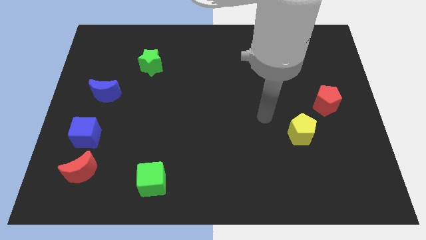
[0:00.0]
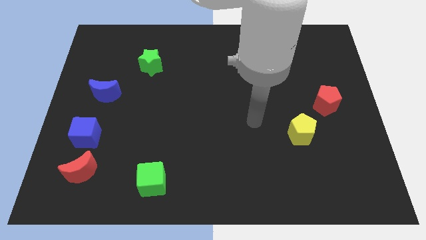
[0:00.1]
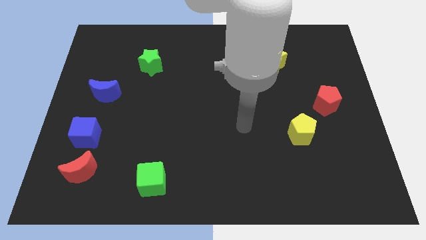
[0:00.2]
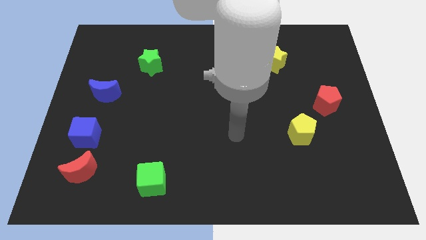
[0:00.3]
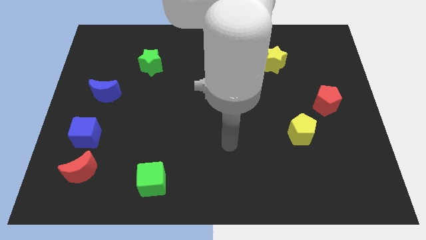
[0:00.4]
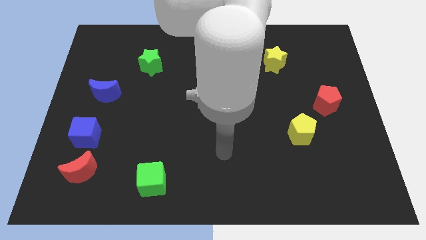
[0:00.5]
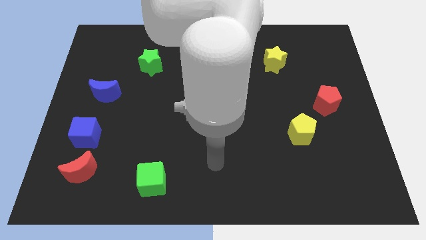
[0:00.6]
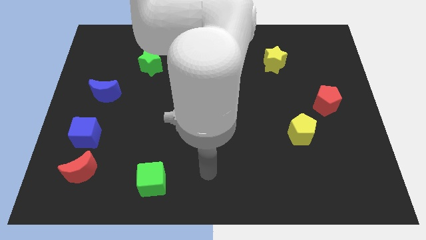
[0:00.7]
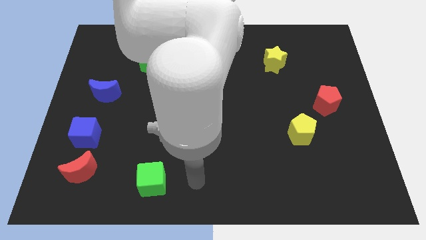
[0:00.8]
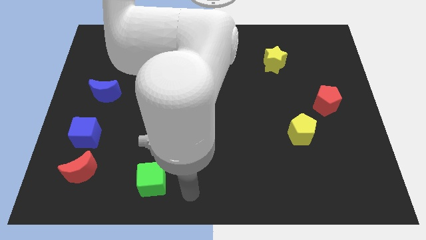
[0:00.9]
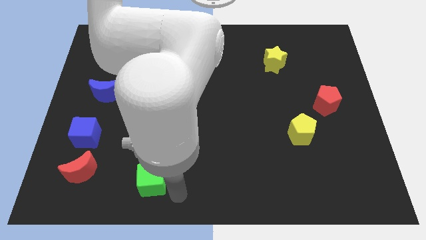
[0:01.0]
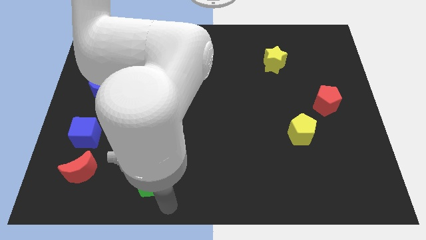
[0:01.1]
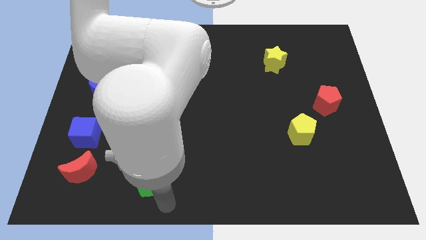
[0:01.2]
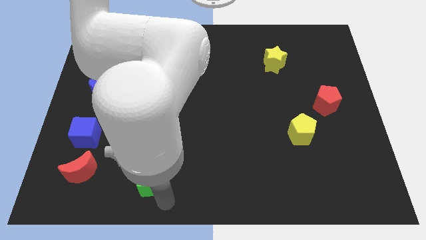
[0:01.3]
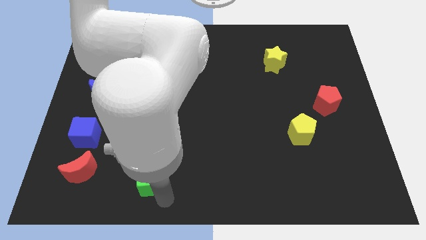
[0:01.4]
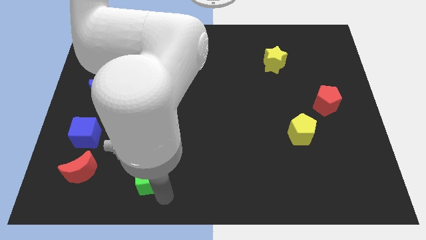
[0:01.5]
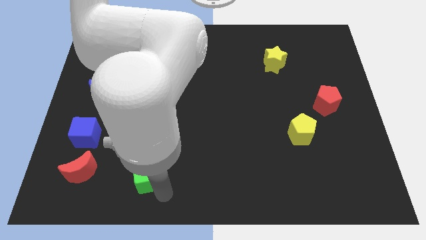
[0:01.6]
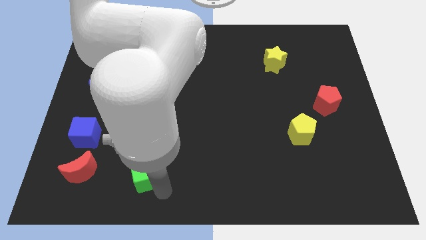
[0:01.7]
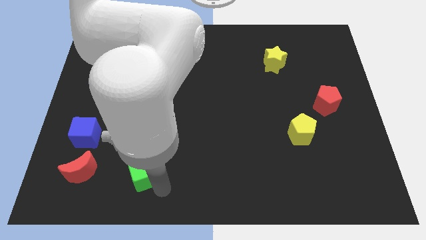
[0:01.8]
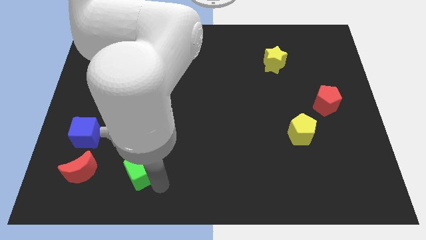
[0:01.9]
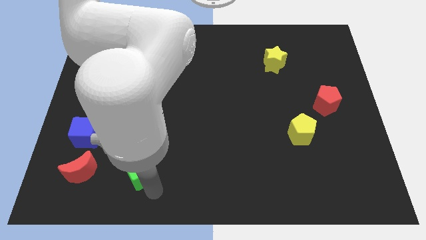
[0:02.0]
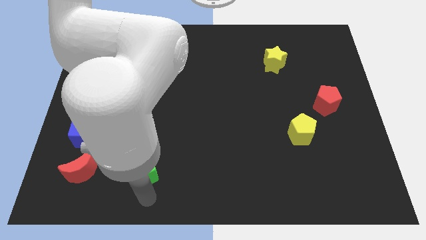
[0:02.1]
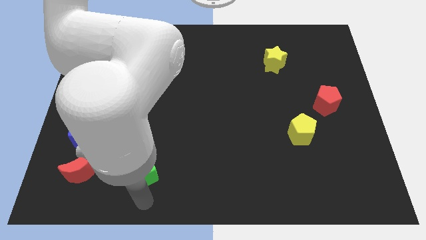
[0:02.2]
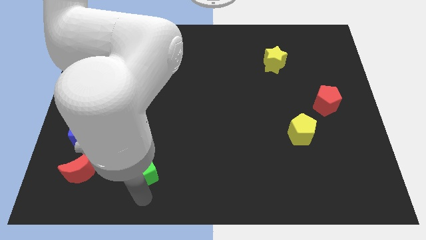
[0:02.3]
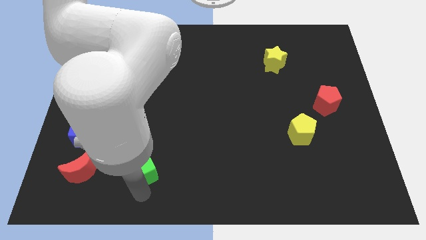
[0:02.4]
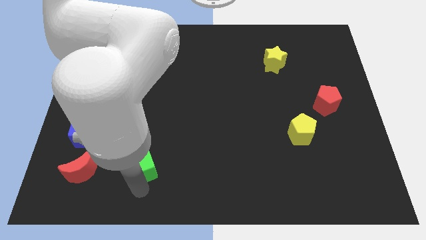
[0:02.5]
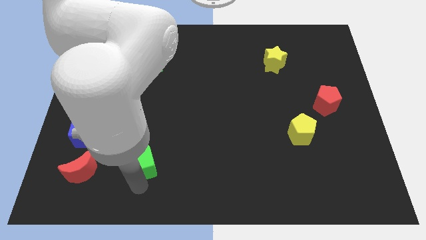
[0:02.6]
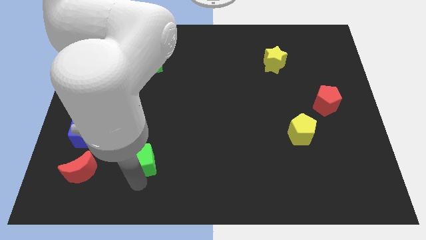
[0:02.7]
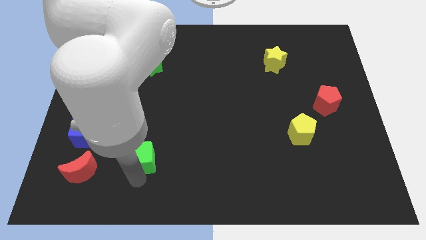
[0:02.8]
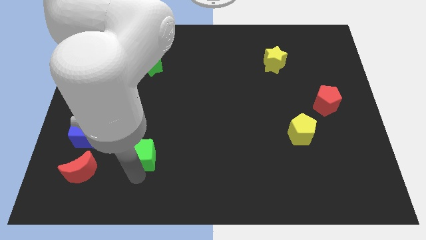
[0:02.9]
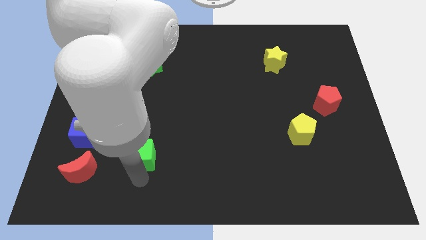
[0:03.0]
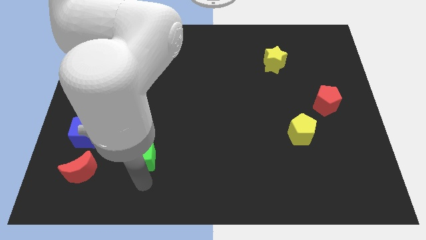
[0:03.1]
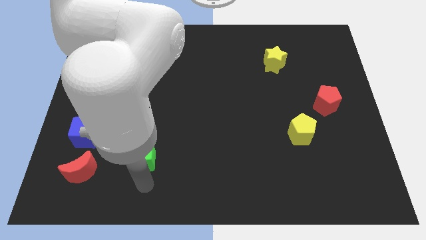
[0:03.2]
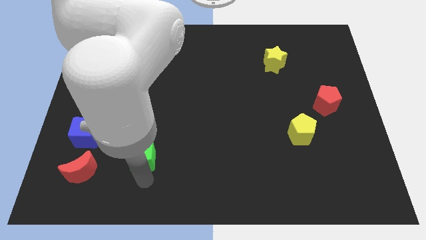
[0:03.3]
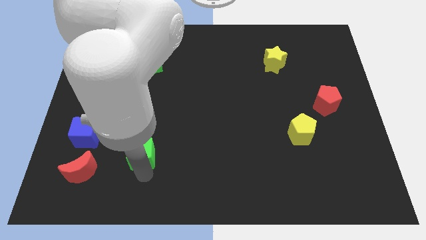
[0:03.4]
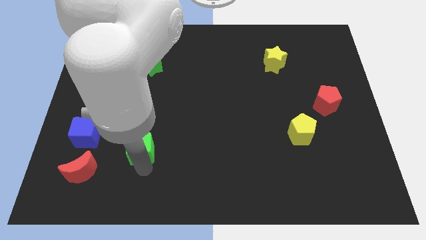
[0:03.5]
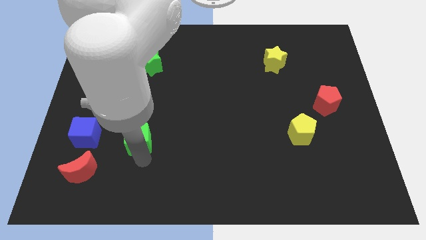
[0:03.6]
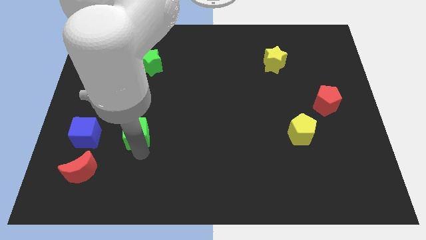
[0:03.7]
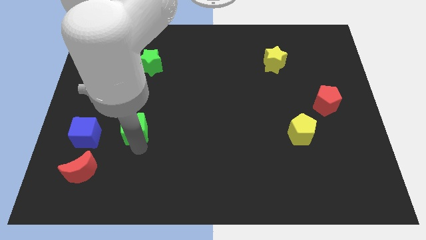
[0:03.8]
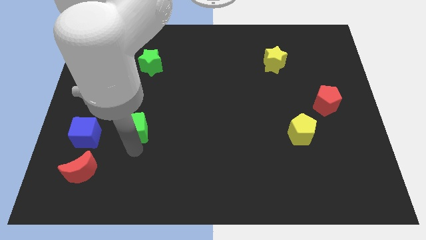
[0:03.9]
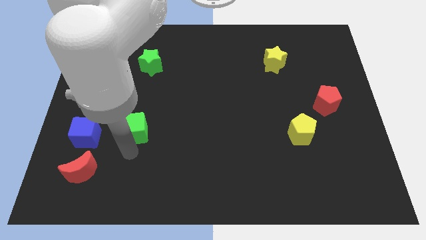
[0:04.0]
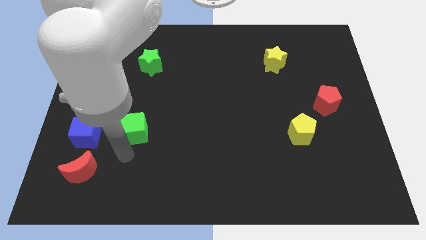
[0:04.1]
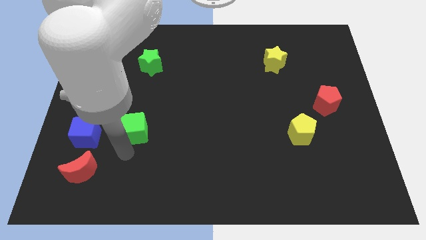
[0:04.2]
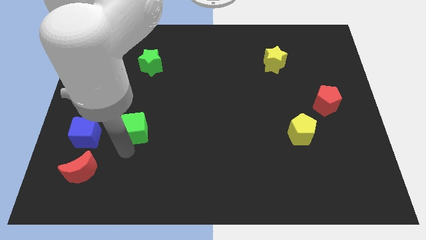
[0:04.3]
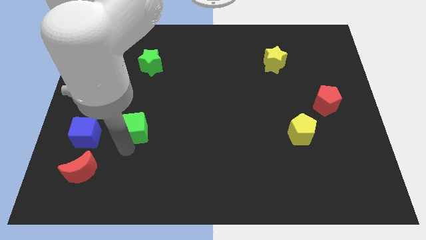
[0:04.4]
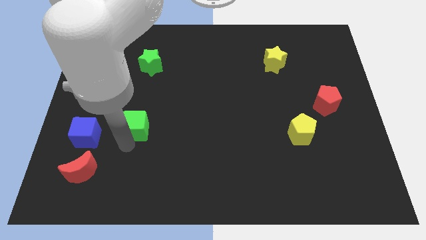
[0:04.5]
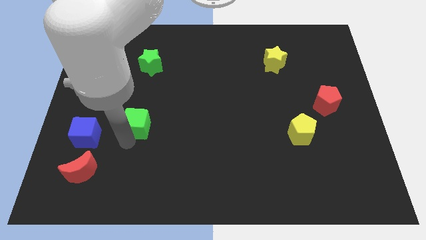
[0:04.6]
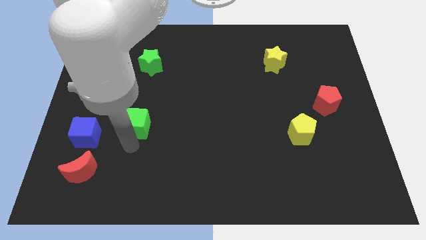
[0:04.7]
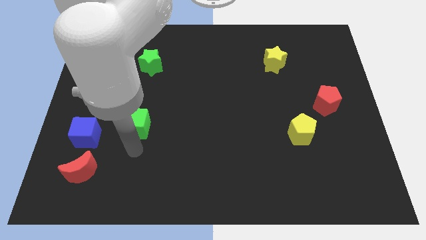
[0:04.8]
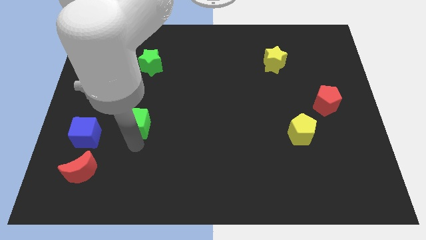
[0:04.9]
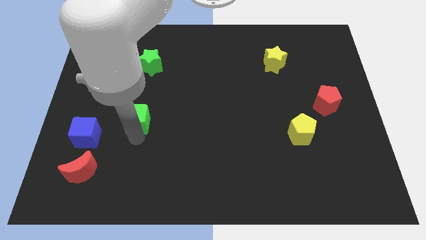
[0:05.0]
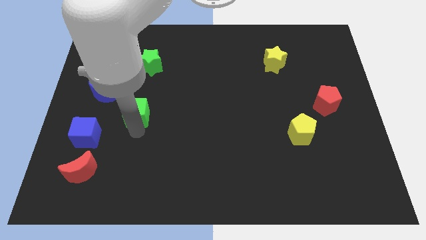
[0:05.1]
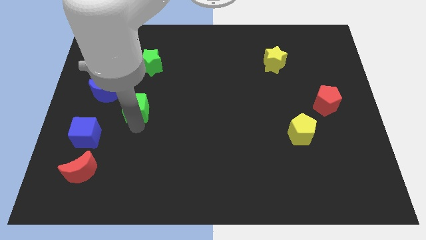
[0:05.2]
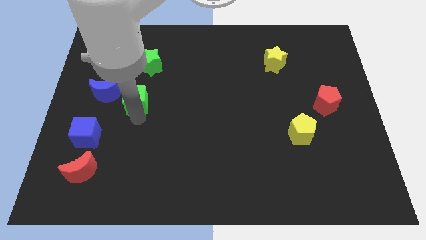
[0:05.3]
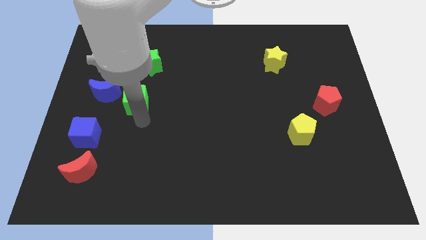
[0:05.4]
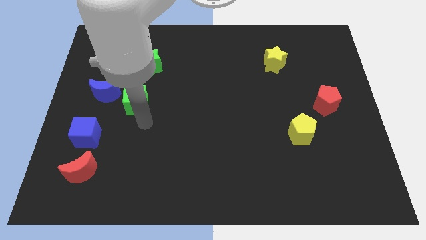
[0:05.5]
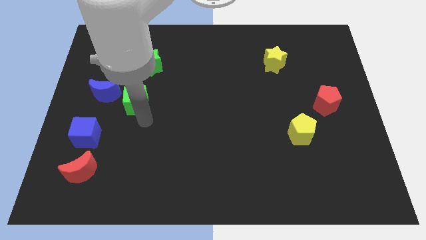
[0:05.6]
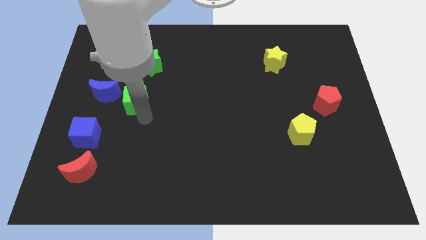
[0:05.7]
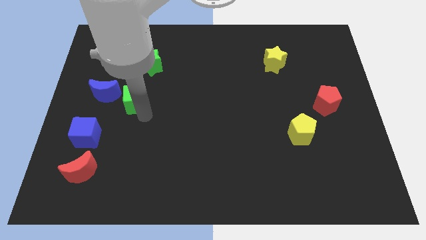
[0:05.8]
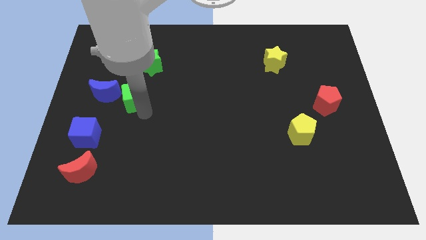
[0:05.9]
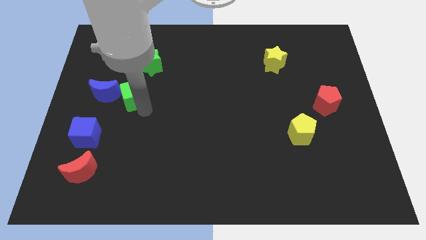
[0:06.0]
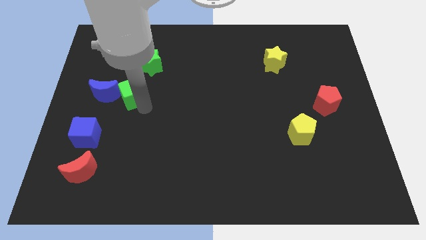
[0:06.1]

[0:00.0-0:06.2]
put the green cube diagonally down and to the left of the green star
